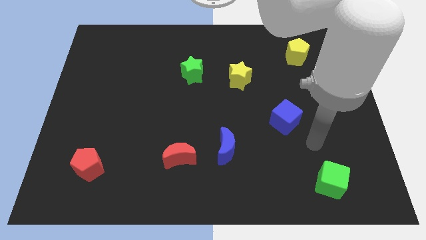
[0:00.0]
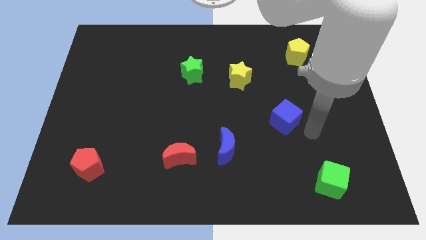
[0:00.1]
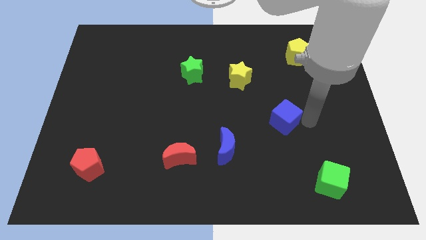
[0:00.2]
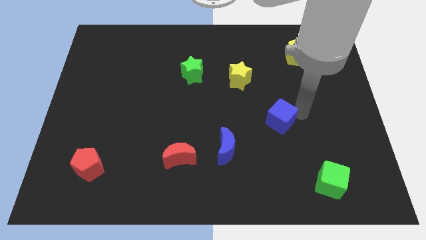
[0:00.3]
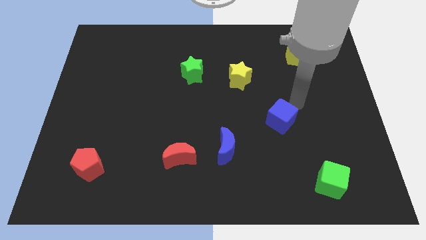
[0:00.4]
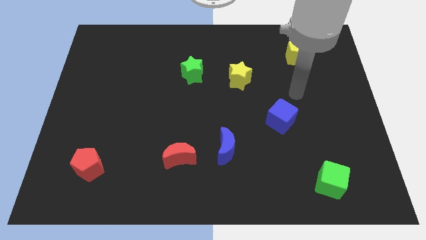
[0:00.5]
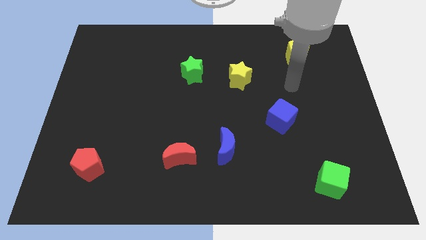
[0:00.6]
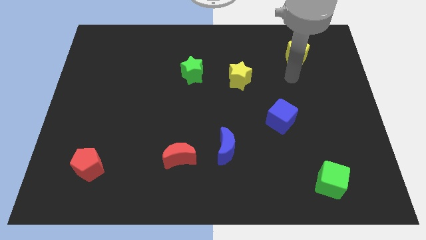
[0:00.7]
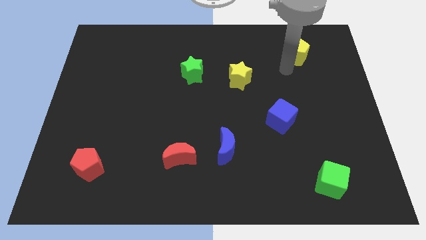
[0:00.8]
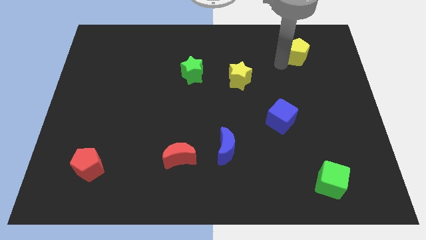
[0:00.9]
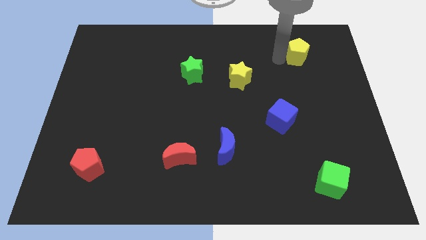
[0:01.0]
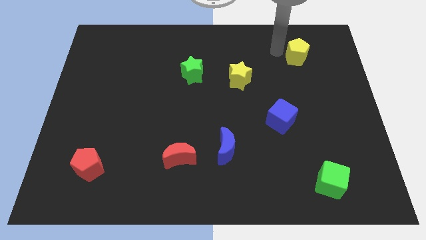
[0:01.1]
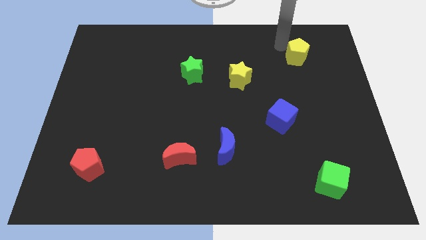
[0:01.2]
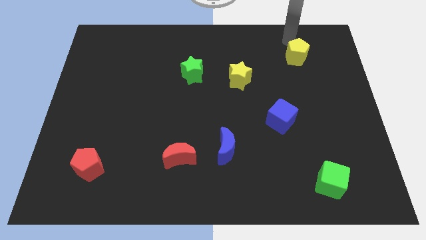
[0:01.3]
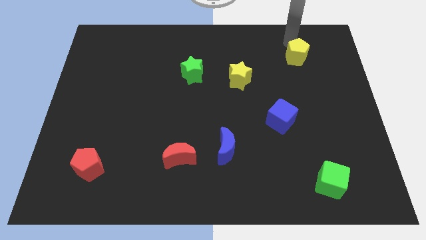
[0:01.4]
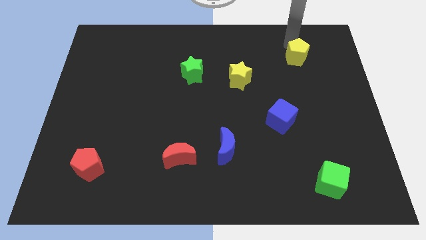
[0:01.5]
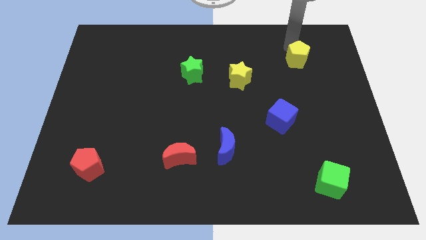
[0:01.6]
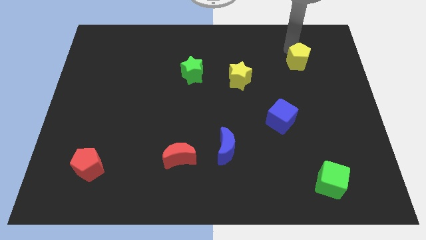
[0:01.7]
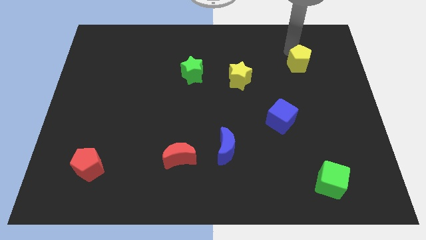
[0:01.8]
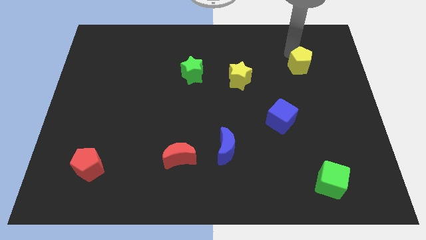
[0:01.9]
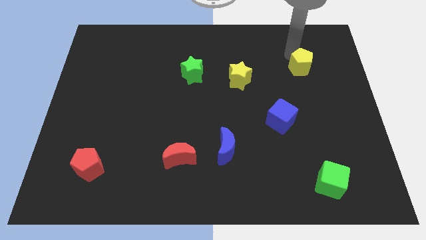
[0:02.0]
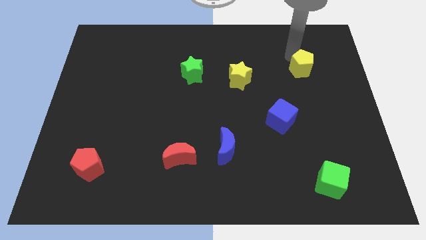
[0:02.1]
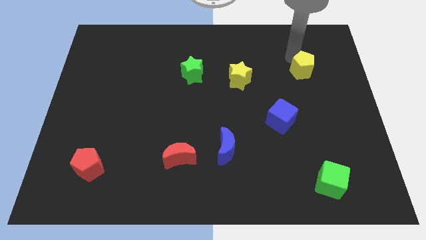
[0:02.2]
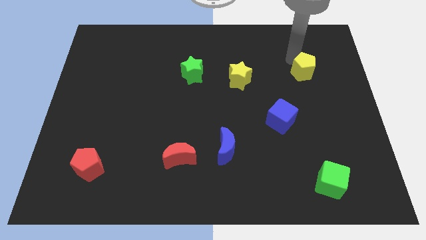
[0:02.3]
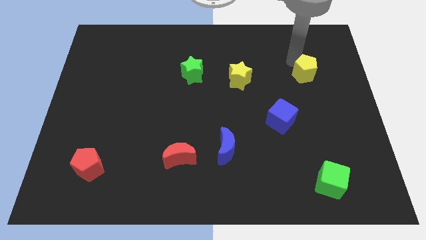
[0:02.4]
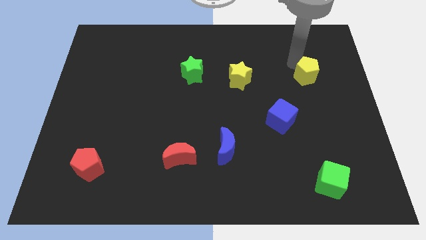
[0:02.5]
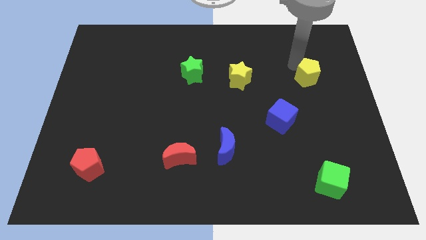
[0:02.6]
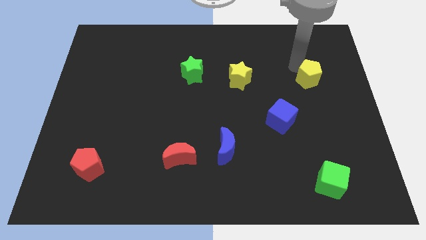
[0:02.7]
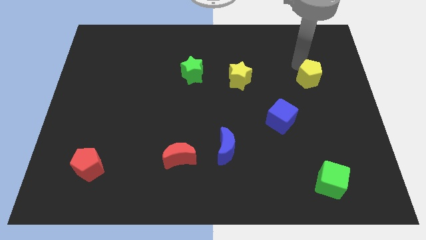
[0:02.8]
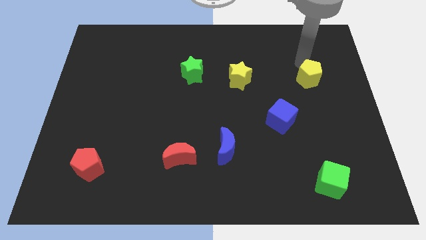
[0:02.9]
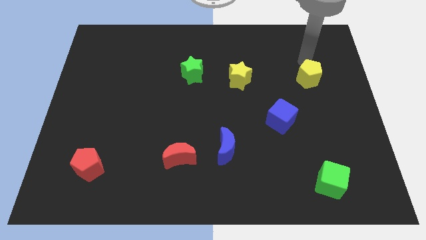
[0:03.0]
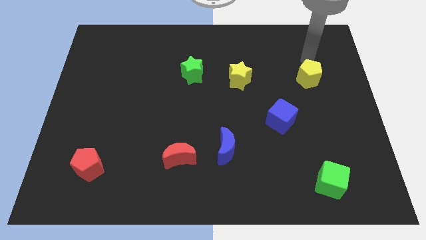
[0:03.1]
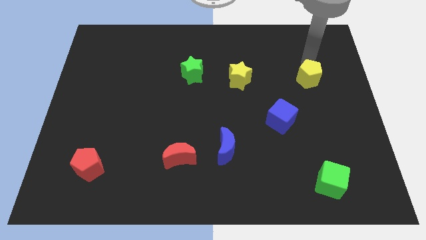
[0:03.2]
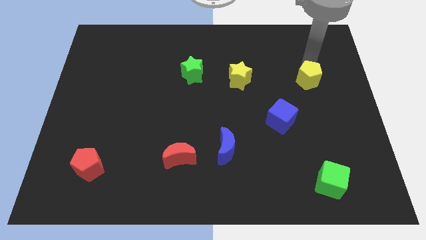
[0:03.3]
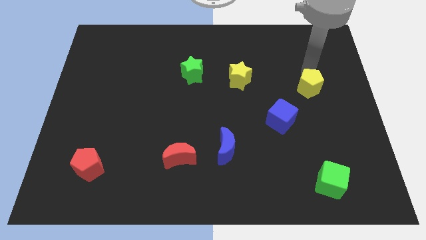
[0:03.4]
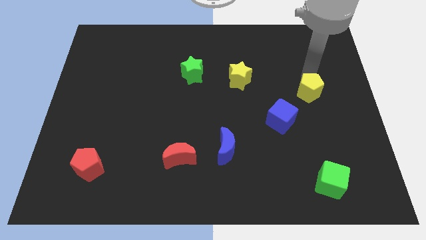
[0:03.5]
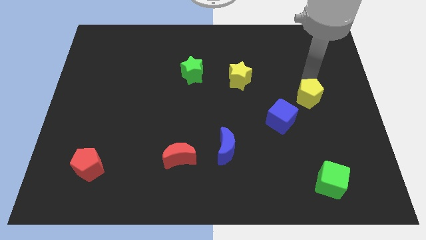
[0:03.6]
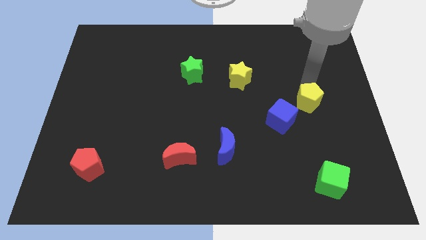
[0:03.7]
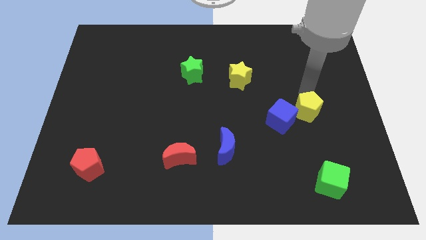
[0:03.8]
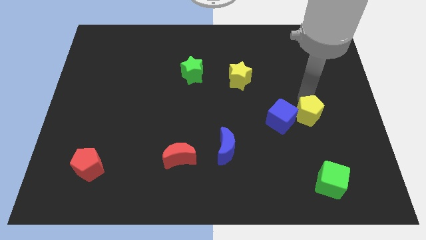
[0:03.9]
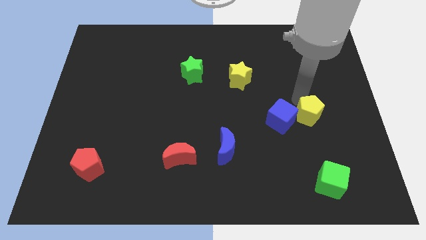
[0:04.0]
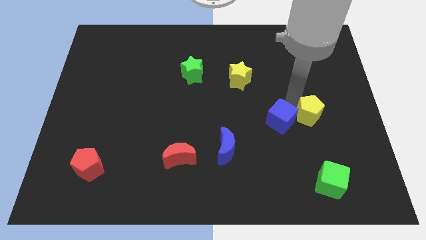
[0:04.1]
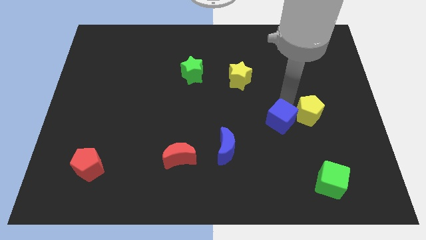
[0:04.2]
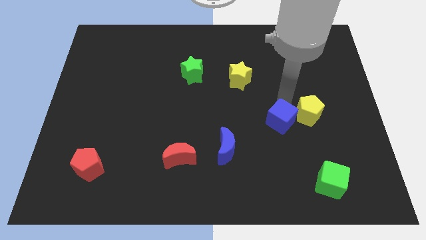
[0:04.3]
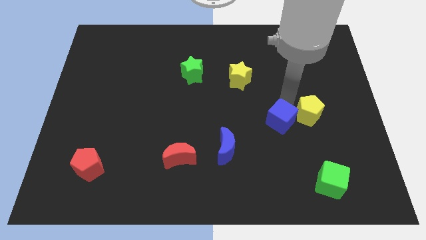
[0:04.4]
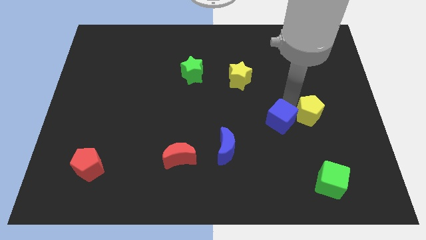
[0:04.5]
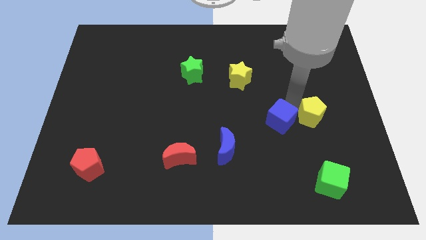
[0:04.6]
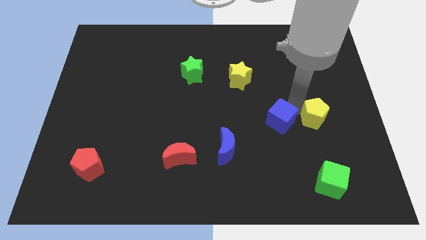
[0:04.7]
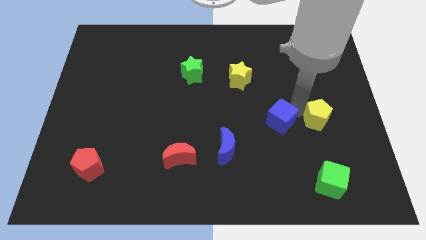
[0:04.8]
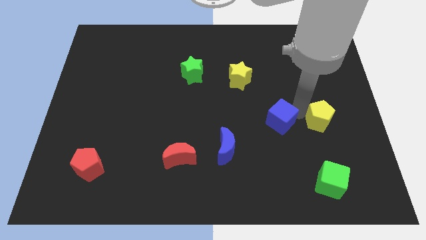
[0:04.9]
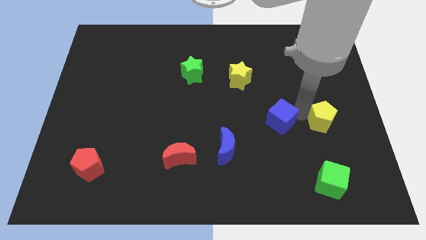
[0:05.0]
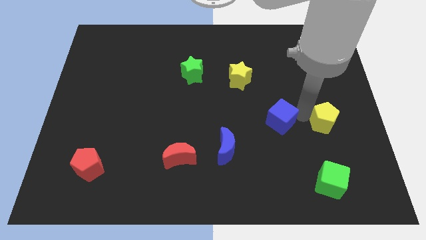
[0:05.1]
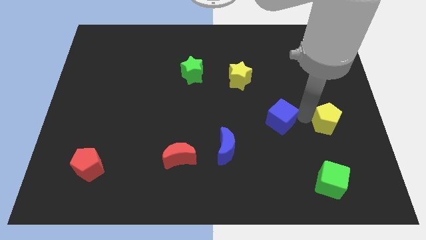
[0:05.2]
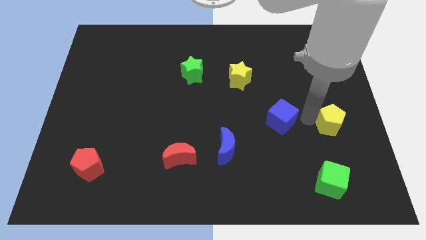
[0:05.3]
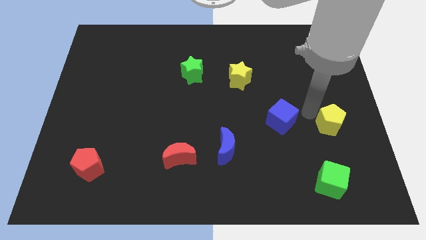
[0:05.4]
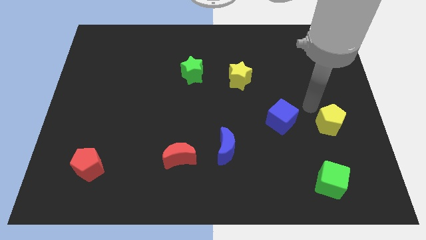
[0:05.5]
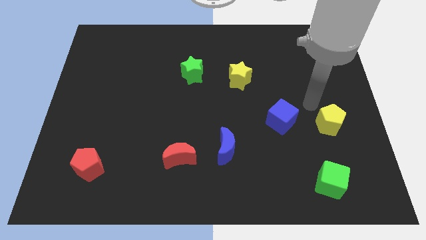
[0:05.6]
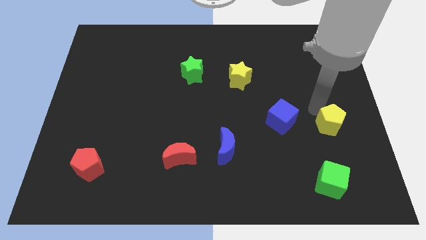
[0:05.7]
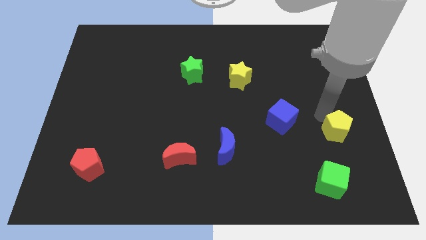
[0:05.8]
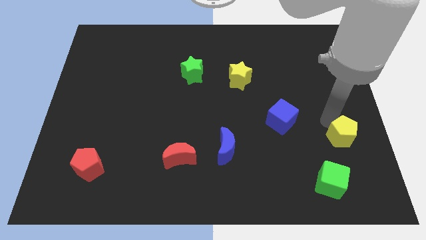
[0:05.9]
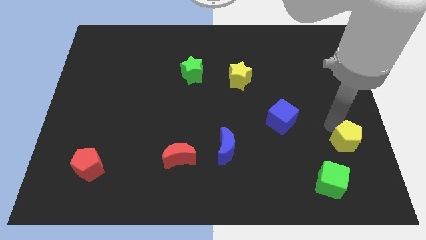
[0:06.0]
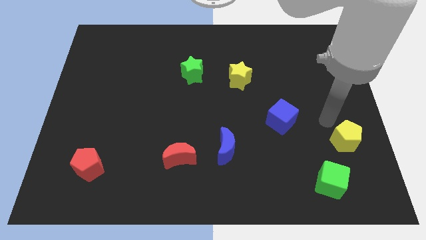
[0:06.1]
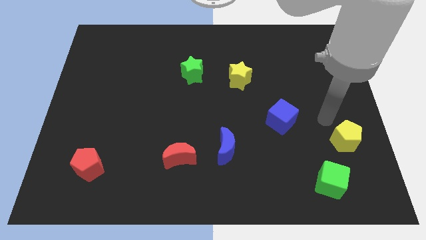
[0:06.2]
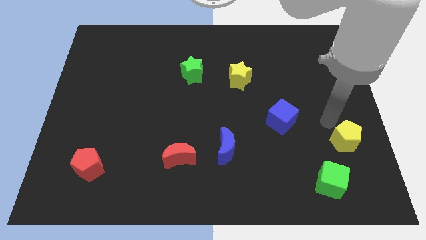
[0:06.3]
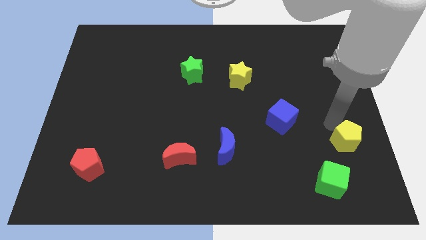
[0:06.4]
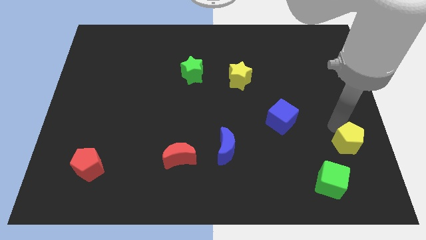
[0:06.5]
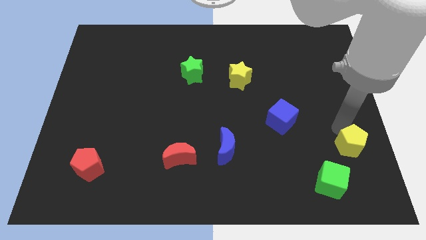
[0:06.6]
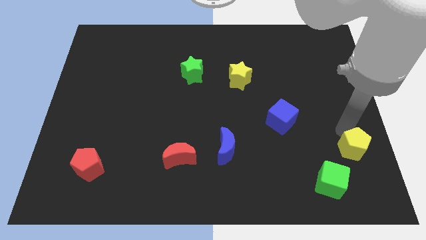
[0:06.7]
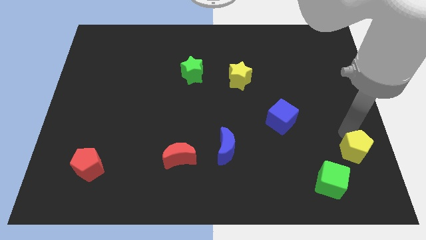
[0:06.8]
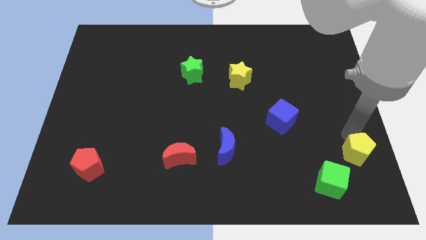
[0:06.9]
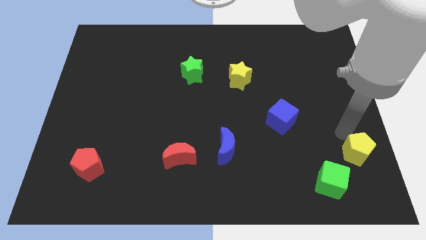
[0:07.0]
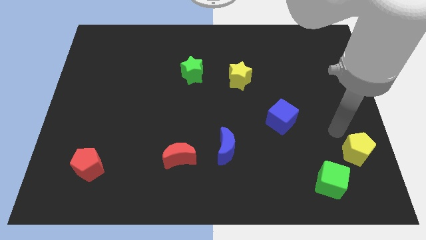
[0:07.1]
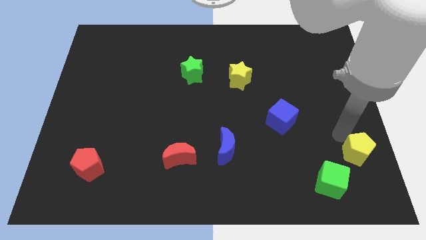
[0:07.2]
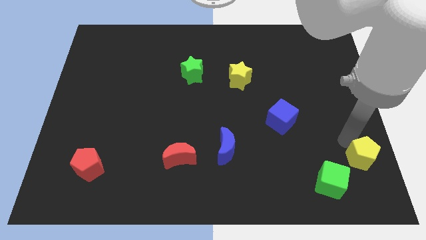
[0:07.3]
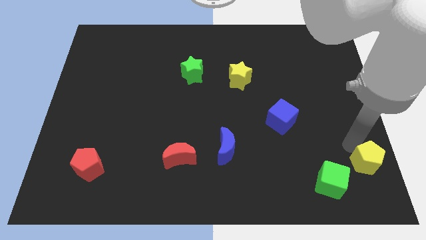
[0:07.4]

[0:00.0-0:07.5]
slide the yellow pentagon to the bottom right corner
